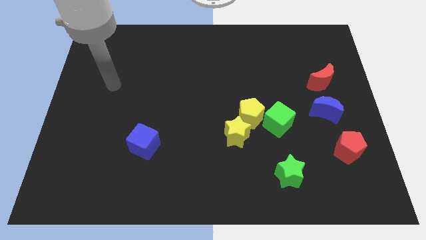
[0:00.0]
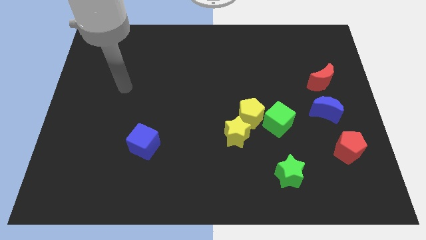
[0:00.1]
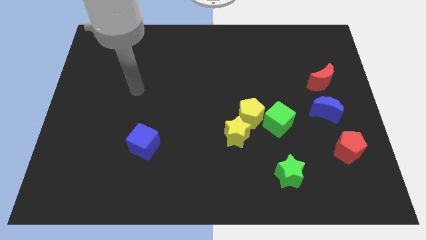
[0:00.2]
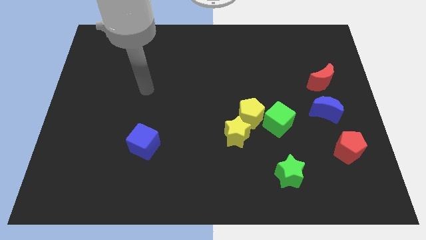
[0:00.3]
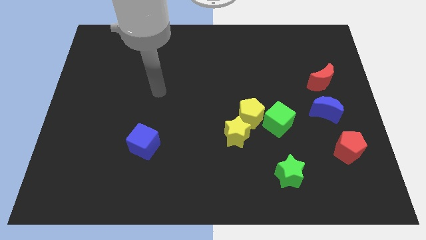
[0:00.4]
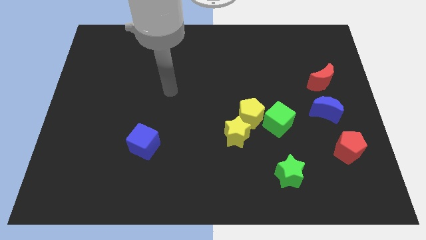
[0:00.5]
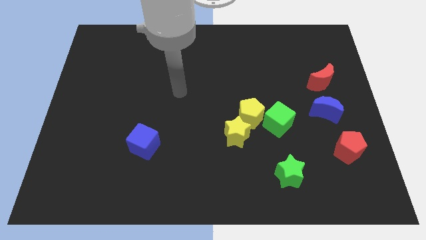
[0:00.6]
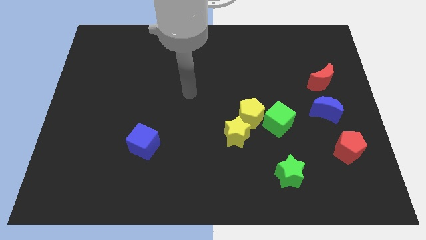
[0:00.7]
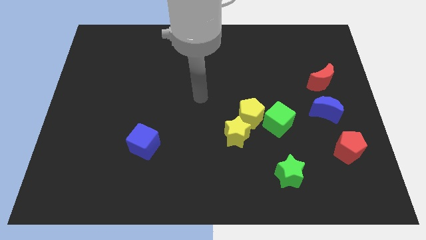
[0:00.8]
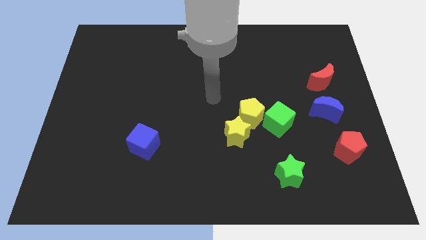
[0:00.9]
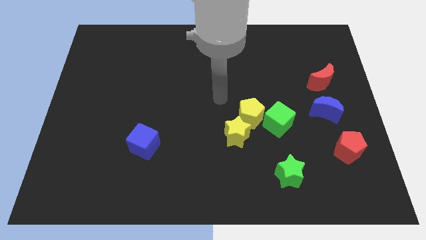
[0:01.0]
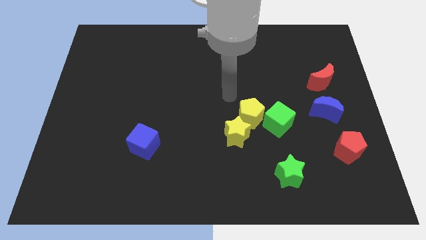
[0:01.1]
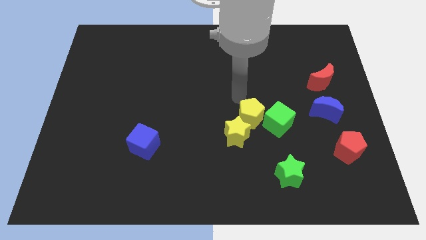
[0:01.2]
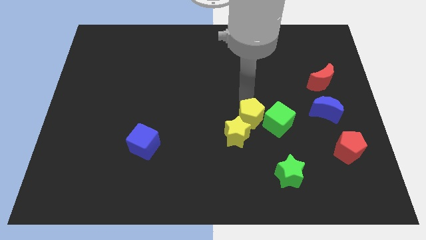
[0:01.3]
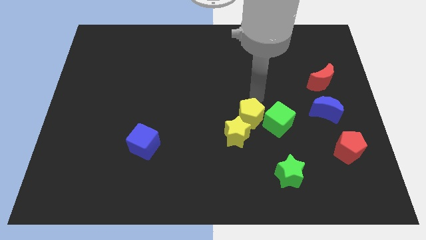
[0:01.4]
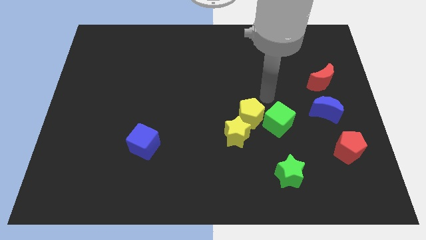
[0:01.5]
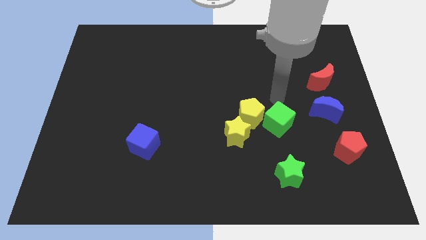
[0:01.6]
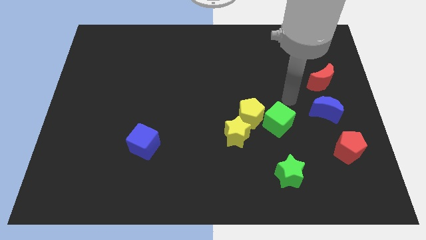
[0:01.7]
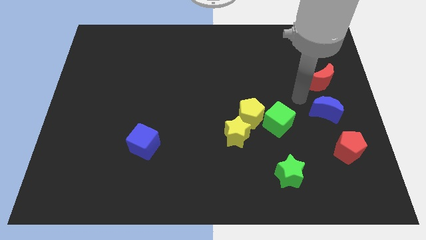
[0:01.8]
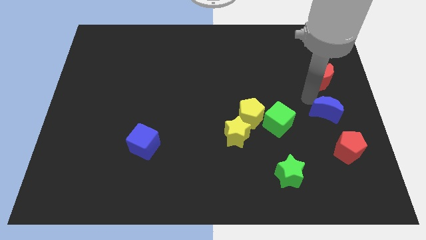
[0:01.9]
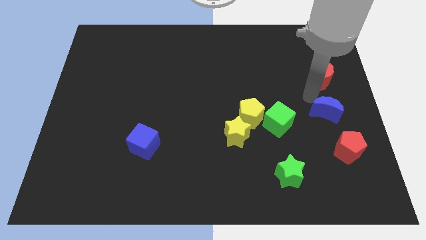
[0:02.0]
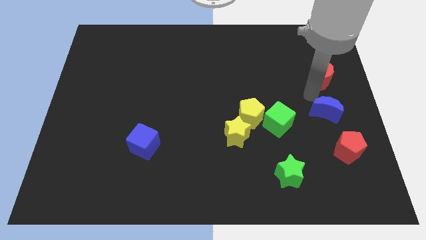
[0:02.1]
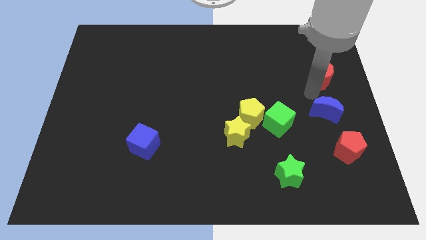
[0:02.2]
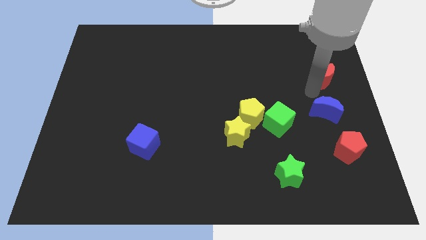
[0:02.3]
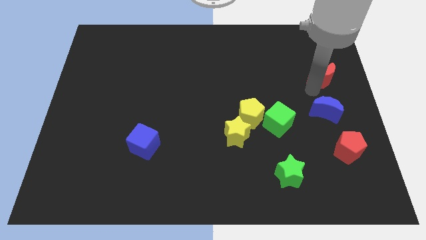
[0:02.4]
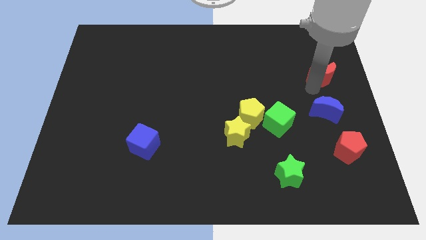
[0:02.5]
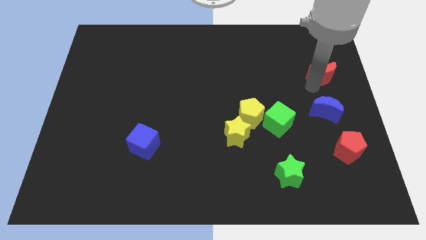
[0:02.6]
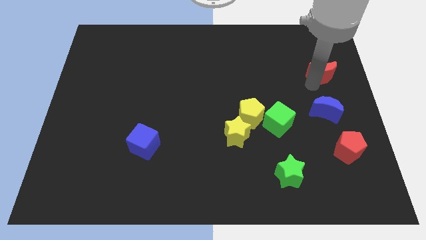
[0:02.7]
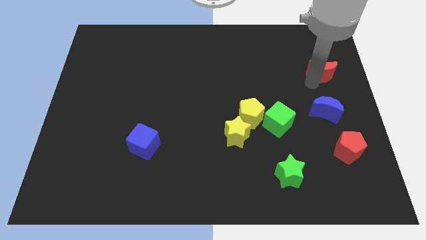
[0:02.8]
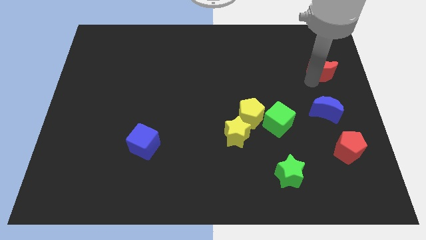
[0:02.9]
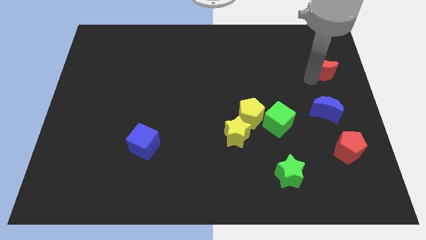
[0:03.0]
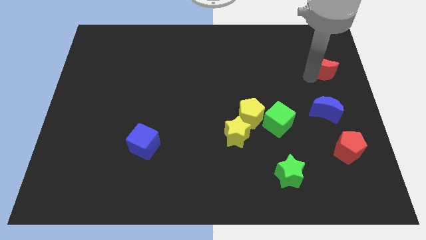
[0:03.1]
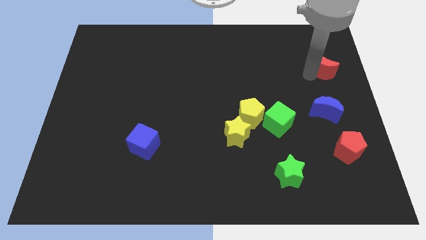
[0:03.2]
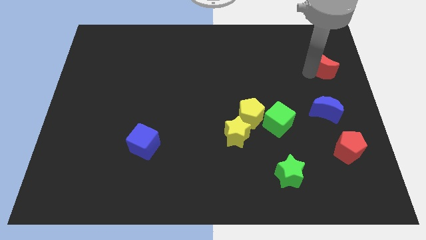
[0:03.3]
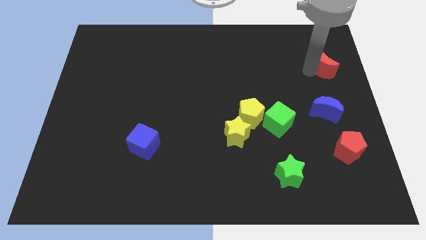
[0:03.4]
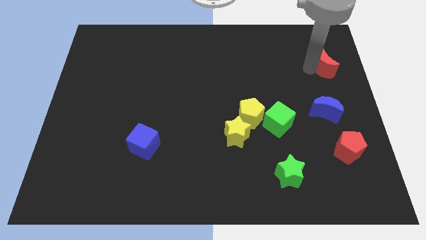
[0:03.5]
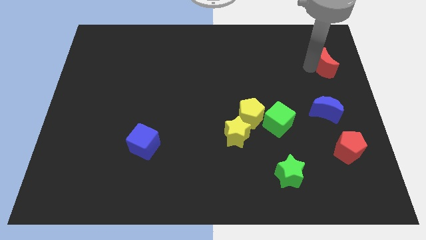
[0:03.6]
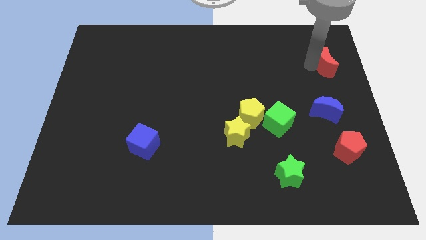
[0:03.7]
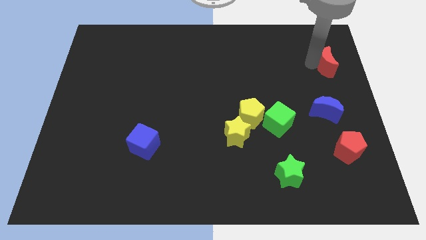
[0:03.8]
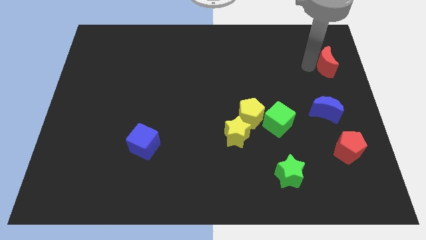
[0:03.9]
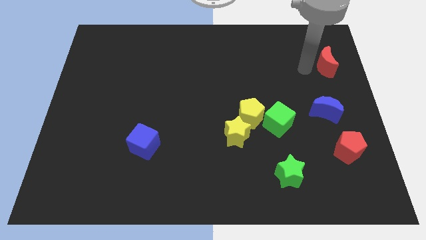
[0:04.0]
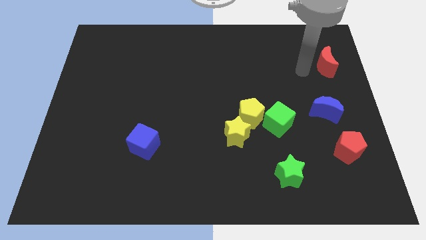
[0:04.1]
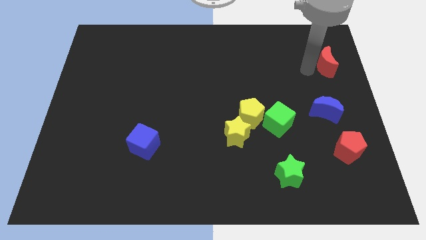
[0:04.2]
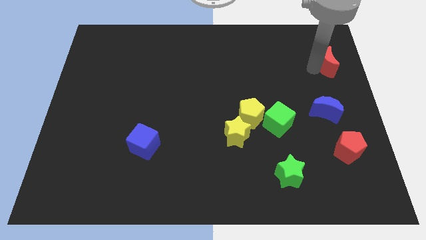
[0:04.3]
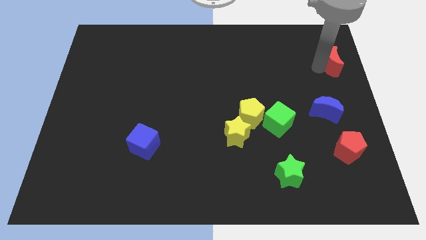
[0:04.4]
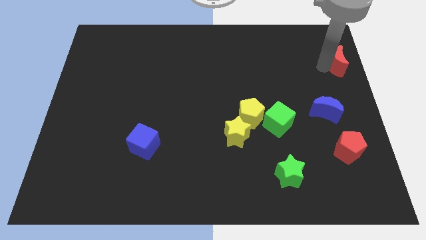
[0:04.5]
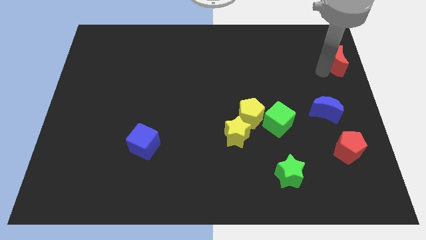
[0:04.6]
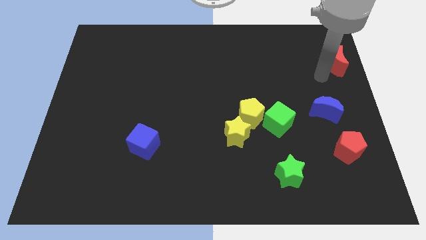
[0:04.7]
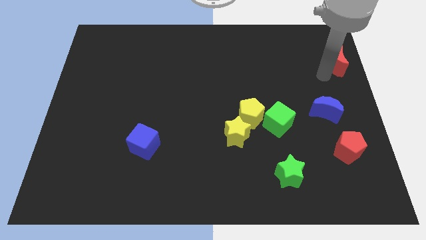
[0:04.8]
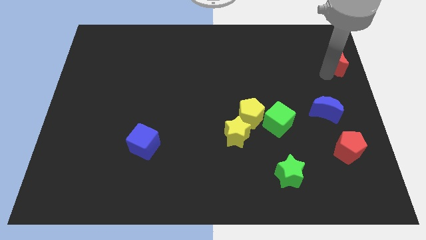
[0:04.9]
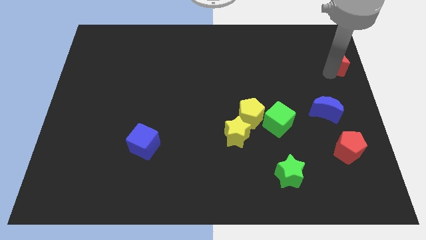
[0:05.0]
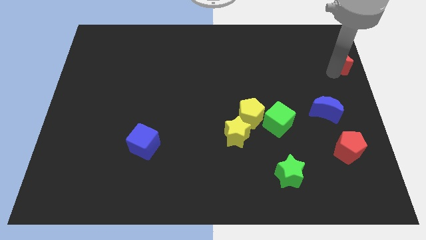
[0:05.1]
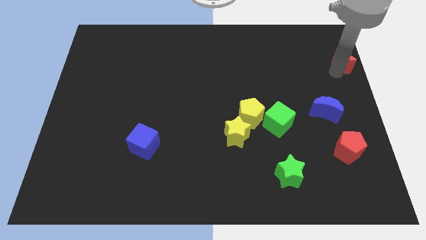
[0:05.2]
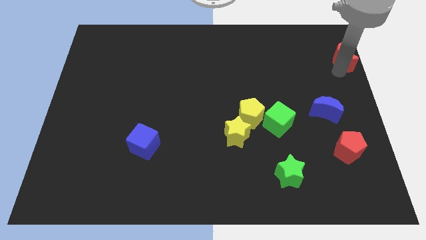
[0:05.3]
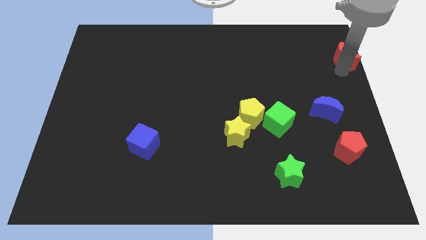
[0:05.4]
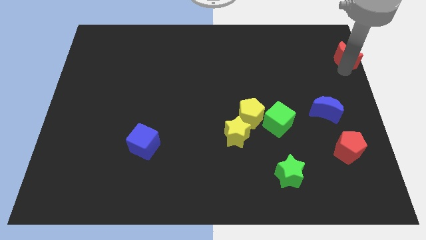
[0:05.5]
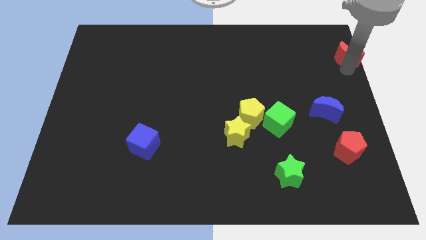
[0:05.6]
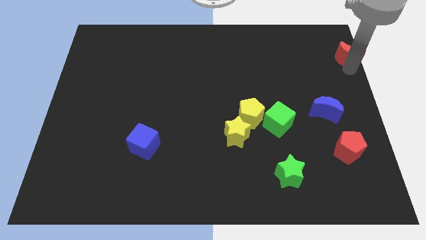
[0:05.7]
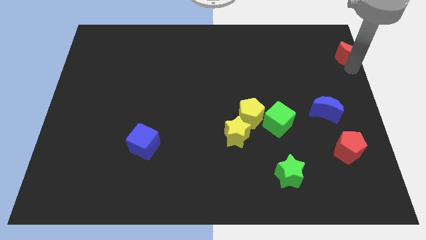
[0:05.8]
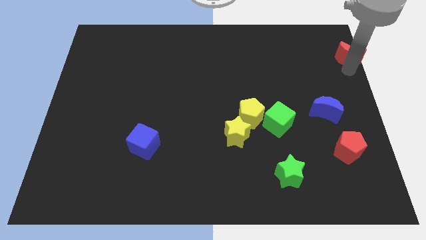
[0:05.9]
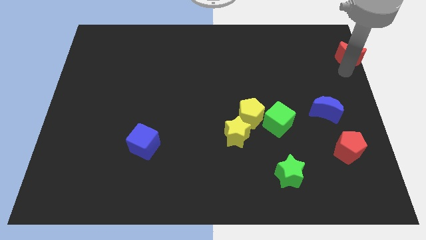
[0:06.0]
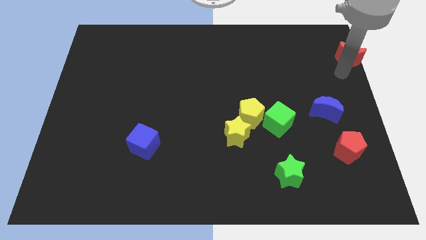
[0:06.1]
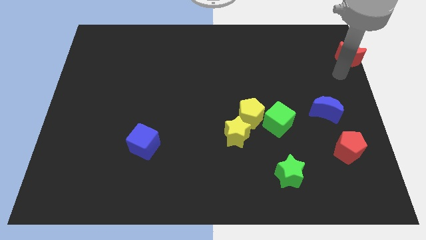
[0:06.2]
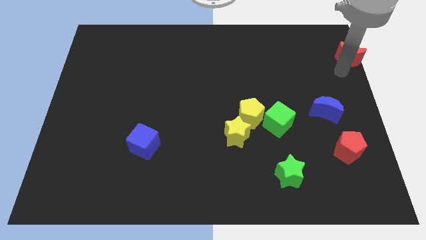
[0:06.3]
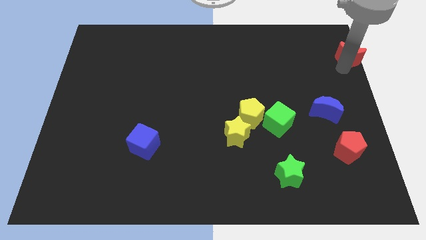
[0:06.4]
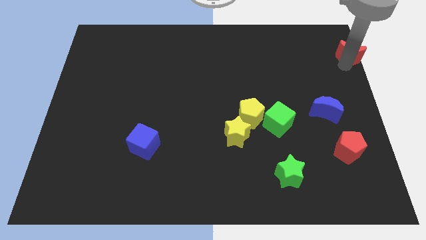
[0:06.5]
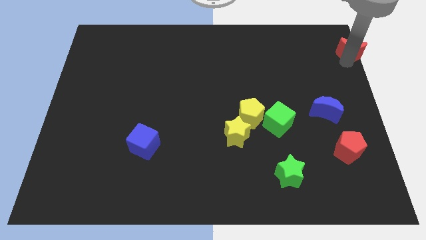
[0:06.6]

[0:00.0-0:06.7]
slide the red moon to the upper right corner
